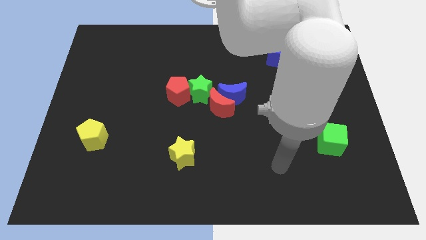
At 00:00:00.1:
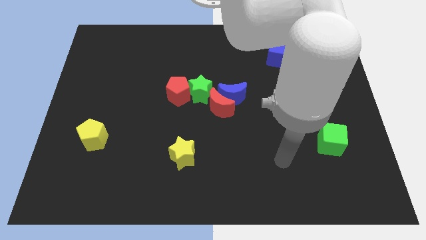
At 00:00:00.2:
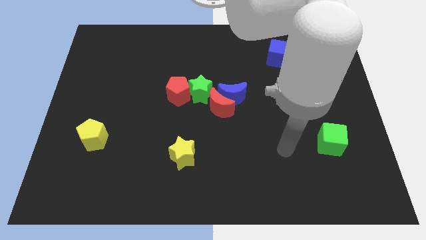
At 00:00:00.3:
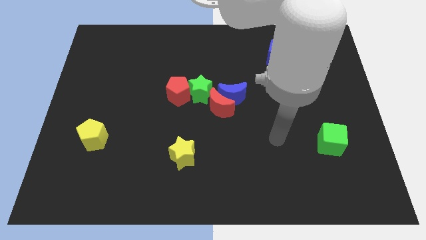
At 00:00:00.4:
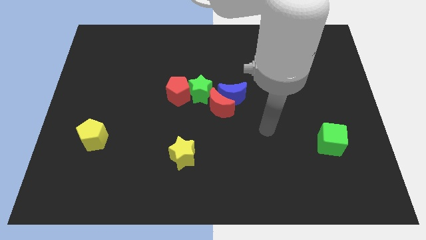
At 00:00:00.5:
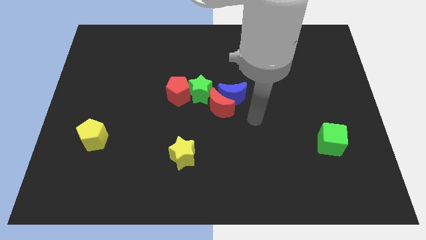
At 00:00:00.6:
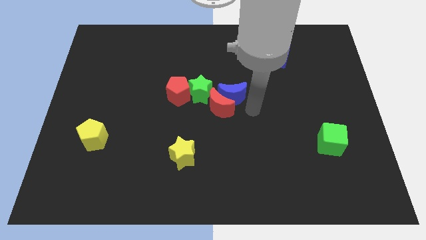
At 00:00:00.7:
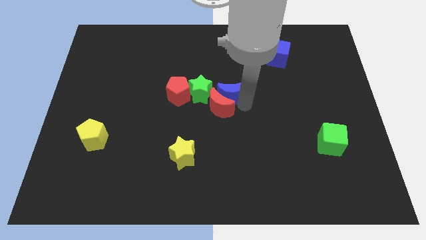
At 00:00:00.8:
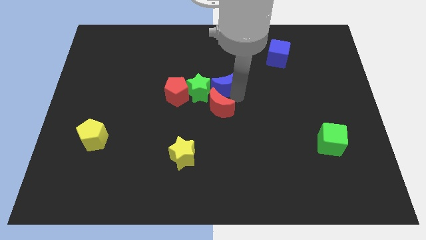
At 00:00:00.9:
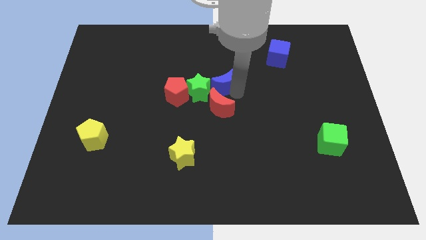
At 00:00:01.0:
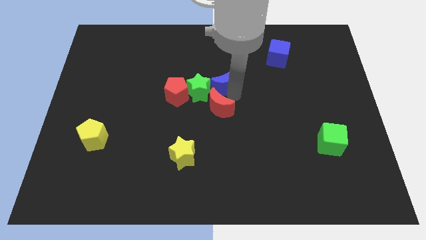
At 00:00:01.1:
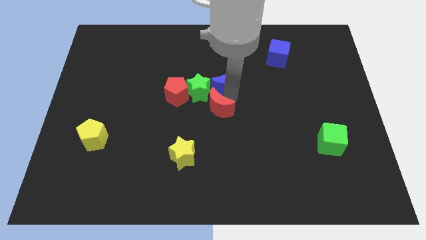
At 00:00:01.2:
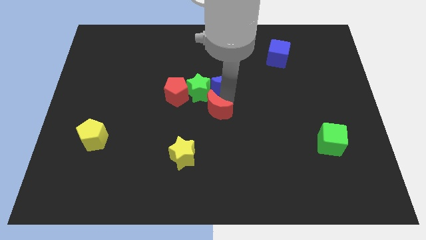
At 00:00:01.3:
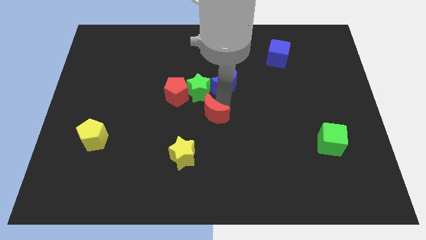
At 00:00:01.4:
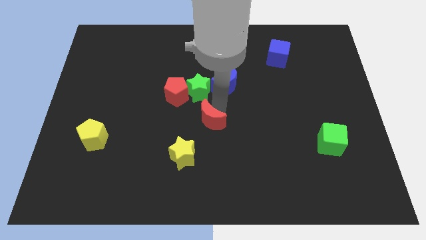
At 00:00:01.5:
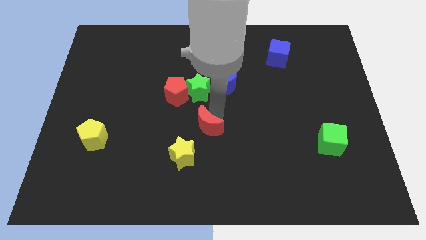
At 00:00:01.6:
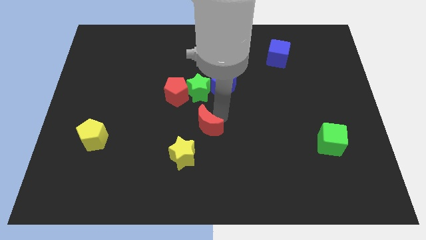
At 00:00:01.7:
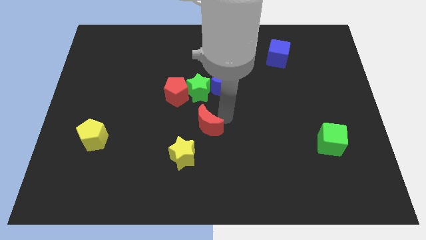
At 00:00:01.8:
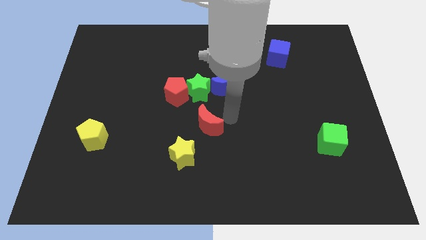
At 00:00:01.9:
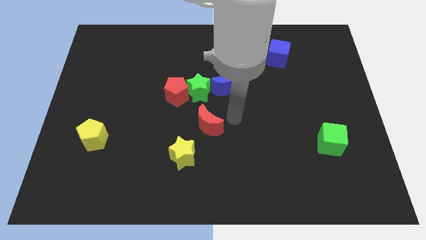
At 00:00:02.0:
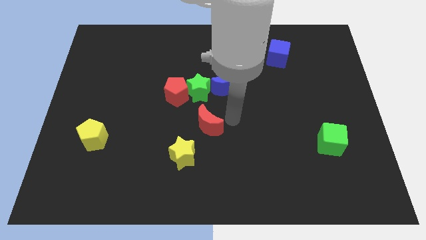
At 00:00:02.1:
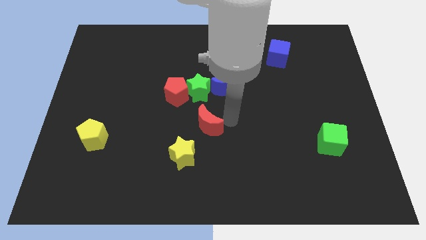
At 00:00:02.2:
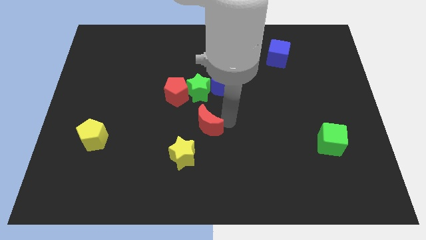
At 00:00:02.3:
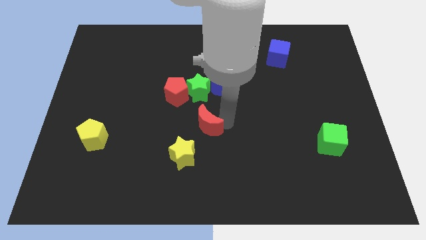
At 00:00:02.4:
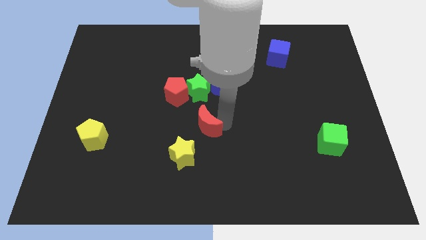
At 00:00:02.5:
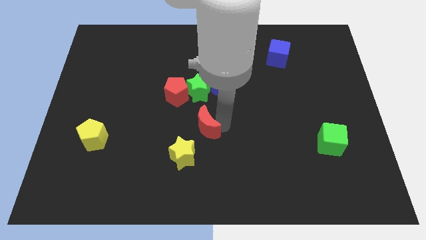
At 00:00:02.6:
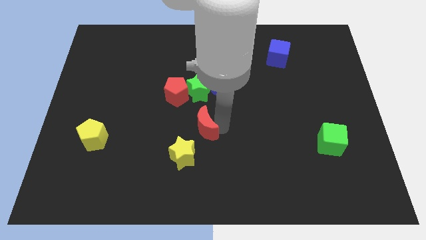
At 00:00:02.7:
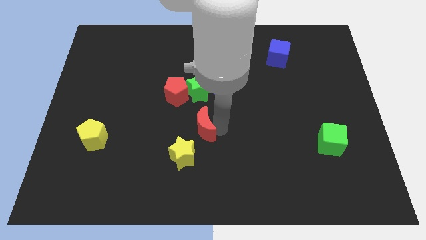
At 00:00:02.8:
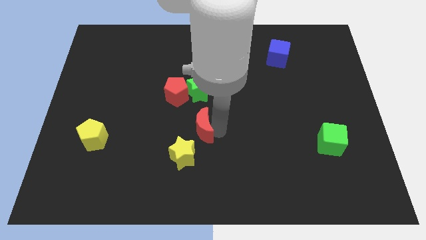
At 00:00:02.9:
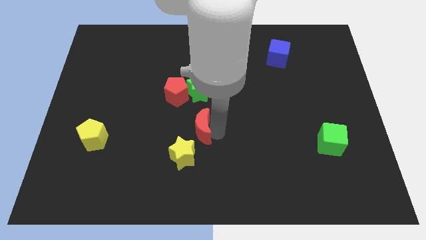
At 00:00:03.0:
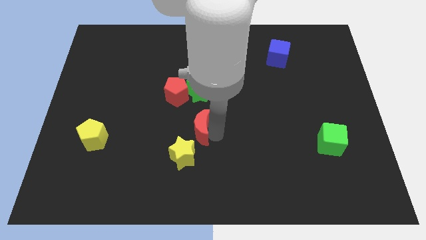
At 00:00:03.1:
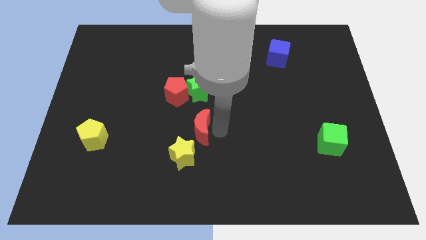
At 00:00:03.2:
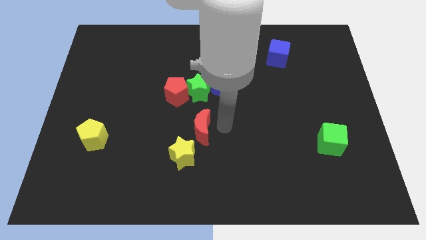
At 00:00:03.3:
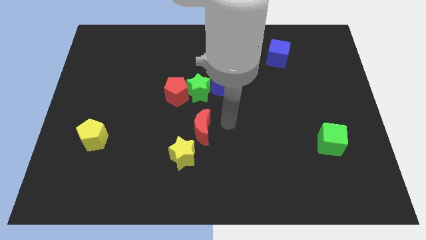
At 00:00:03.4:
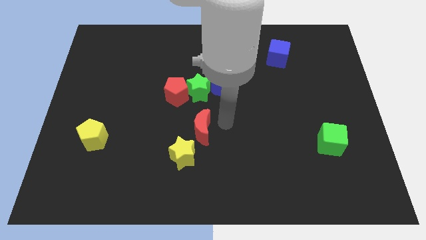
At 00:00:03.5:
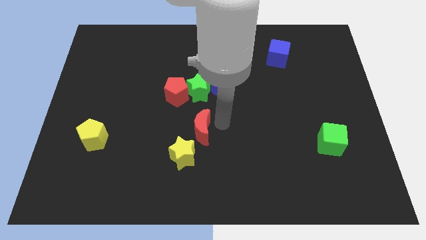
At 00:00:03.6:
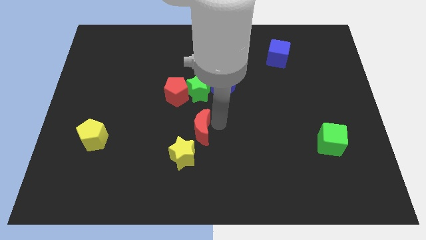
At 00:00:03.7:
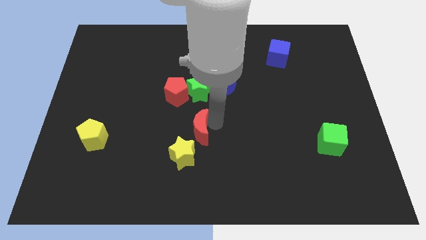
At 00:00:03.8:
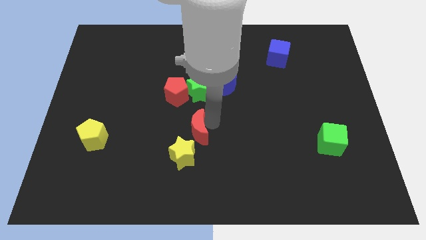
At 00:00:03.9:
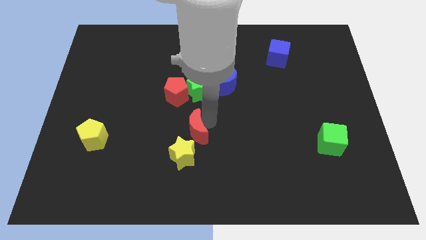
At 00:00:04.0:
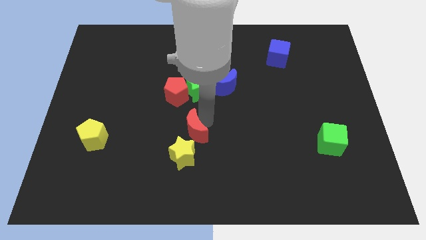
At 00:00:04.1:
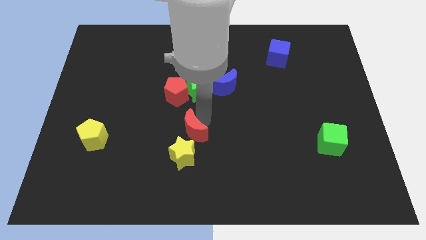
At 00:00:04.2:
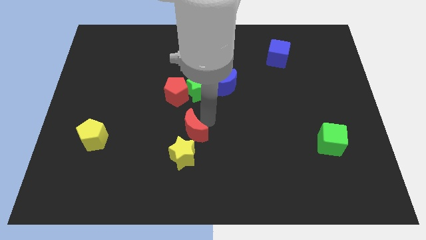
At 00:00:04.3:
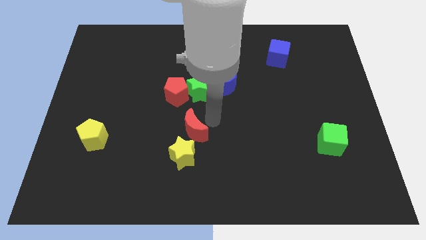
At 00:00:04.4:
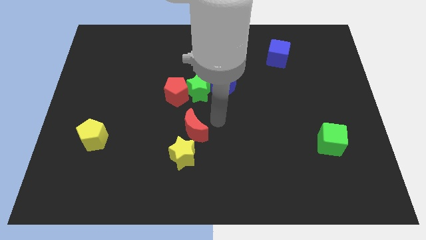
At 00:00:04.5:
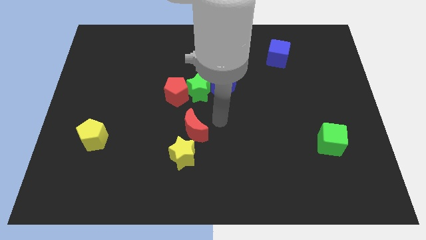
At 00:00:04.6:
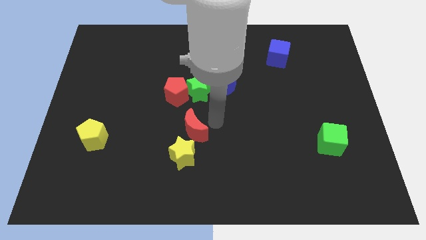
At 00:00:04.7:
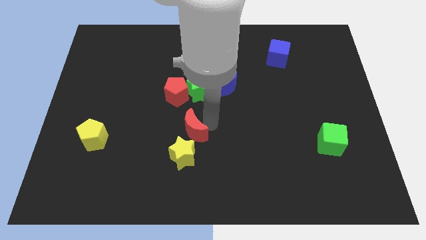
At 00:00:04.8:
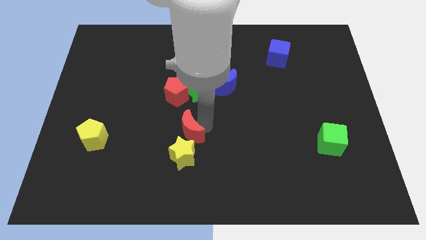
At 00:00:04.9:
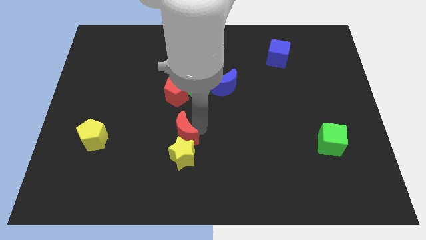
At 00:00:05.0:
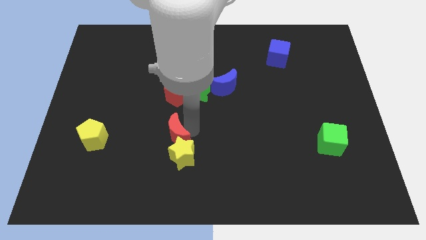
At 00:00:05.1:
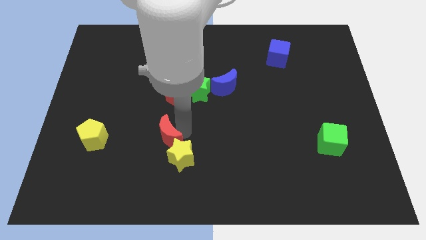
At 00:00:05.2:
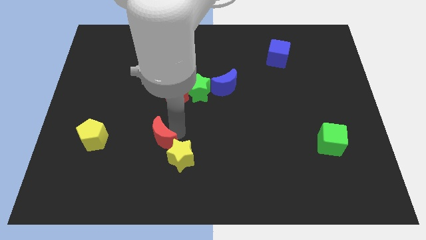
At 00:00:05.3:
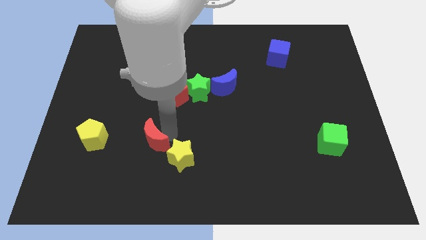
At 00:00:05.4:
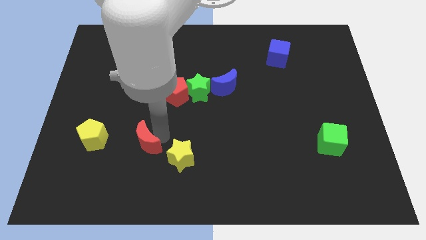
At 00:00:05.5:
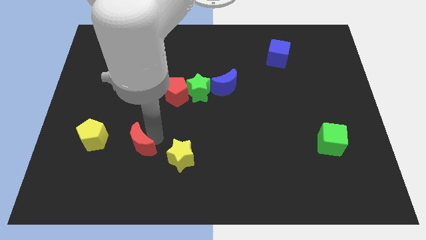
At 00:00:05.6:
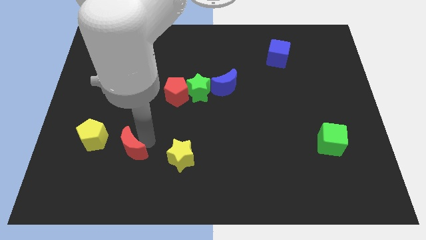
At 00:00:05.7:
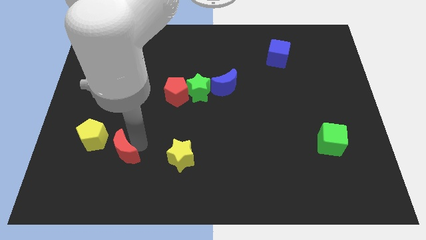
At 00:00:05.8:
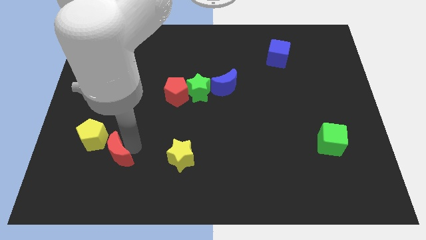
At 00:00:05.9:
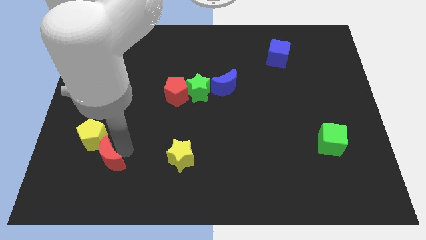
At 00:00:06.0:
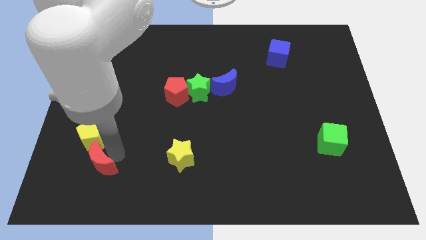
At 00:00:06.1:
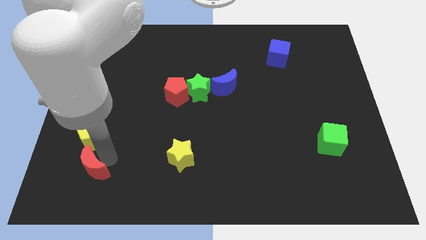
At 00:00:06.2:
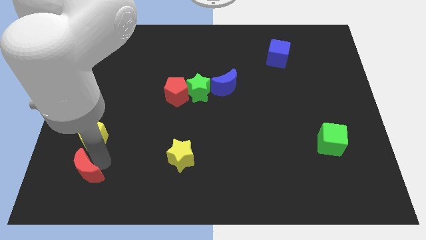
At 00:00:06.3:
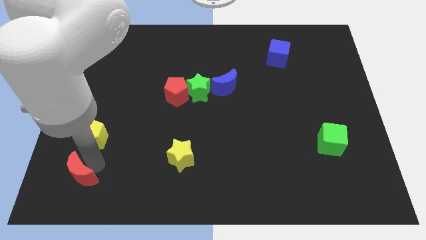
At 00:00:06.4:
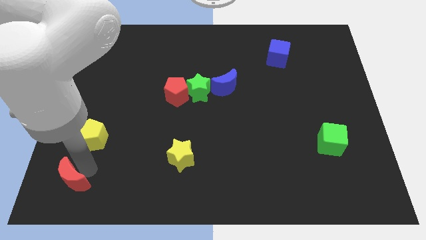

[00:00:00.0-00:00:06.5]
move the red moon to the lower left corner

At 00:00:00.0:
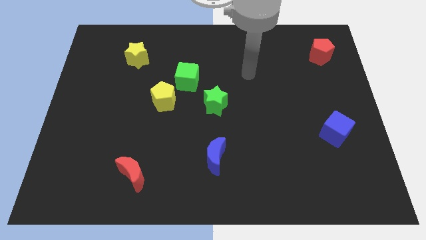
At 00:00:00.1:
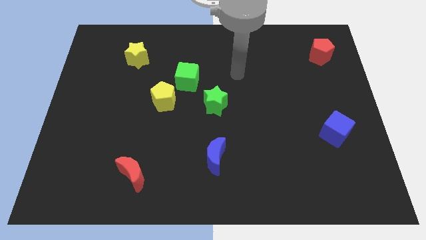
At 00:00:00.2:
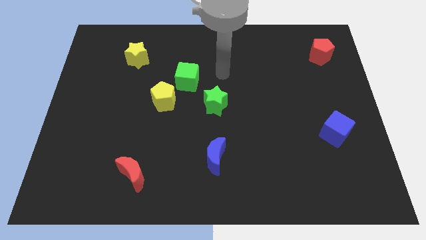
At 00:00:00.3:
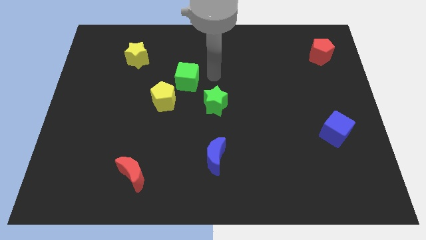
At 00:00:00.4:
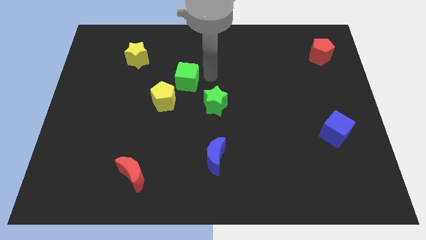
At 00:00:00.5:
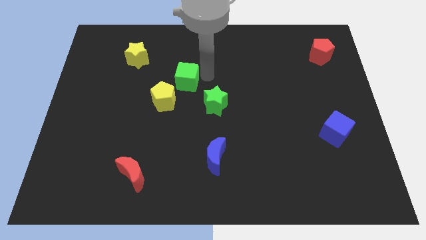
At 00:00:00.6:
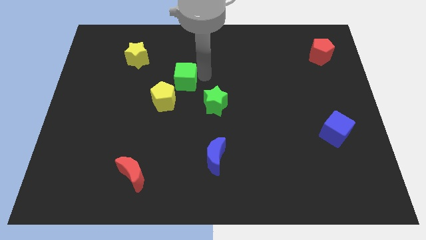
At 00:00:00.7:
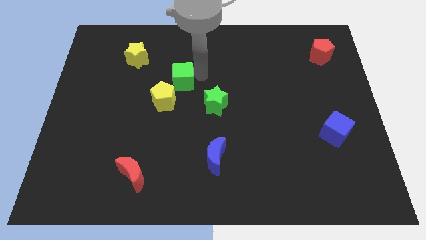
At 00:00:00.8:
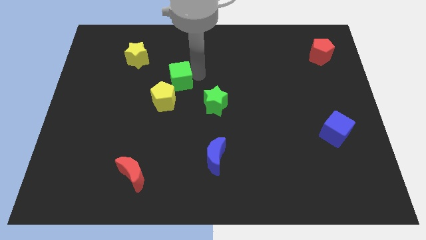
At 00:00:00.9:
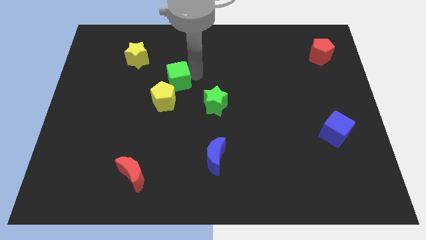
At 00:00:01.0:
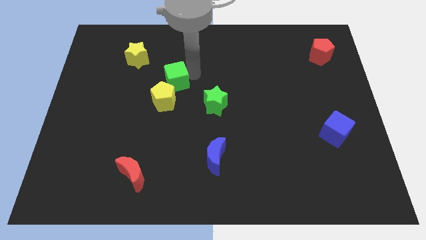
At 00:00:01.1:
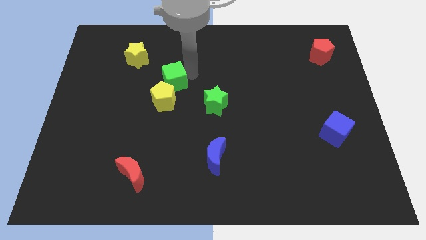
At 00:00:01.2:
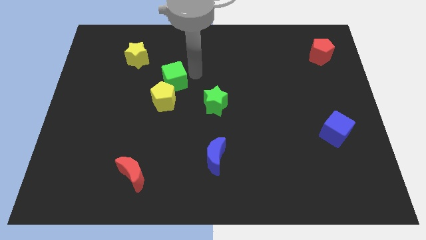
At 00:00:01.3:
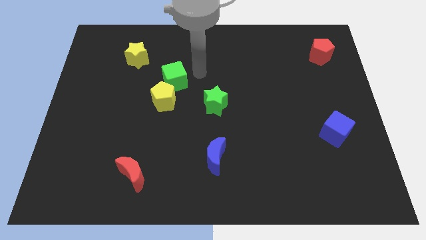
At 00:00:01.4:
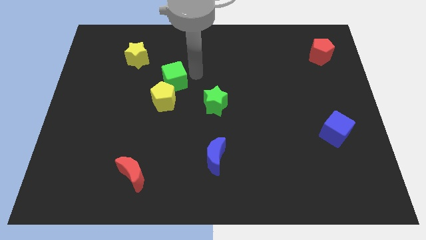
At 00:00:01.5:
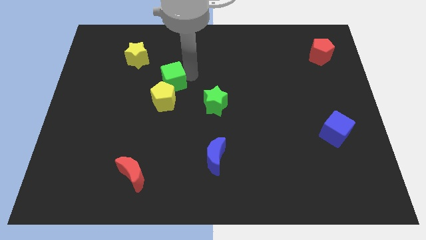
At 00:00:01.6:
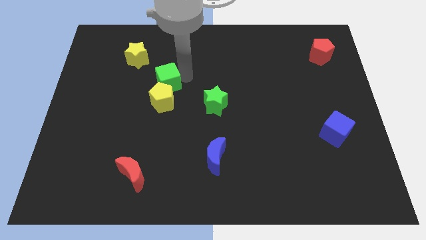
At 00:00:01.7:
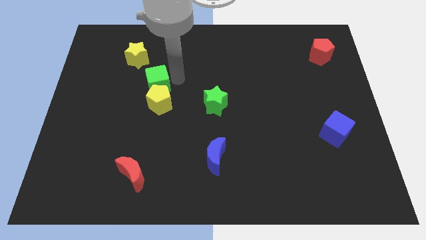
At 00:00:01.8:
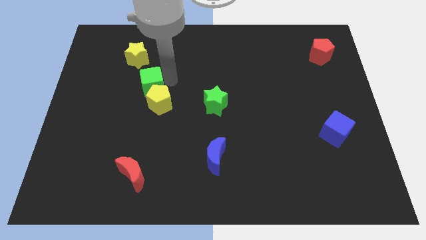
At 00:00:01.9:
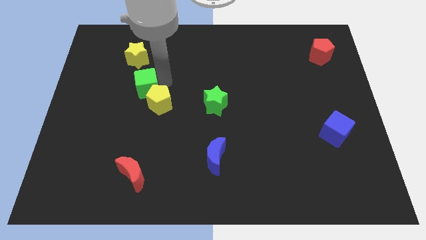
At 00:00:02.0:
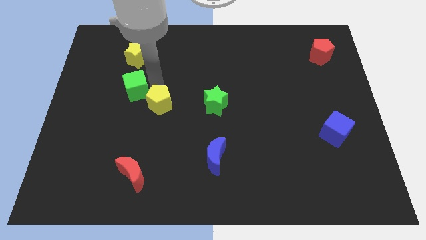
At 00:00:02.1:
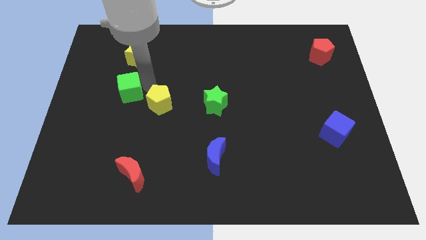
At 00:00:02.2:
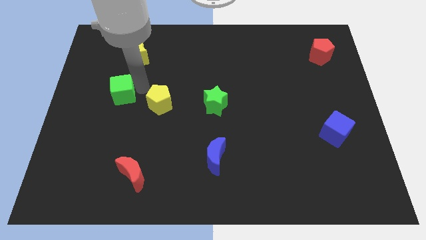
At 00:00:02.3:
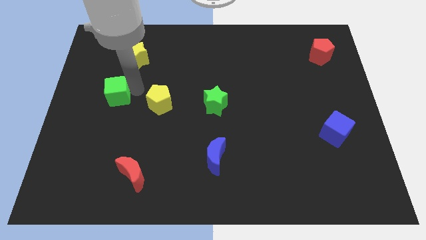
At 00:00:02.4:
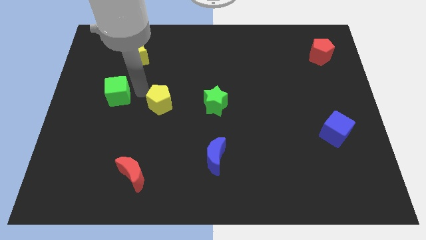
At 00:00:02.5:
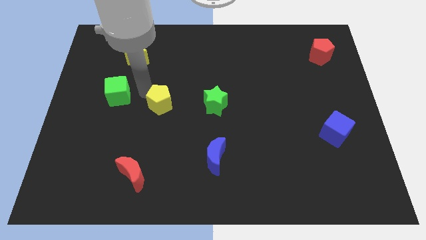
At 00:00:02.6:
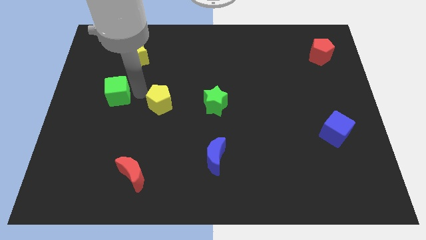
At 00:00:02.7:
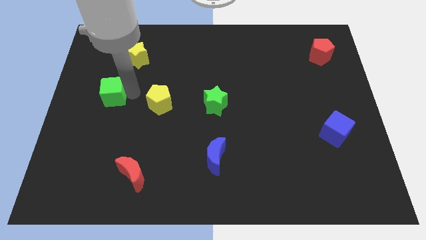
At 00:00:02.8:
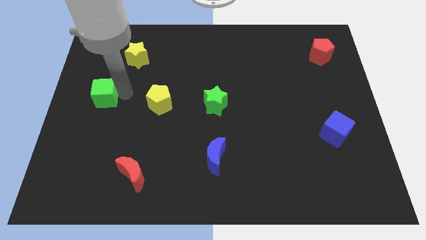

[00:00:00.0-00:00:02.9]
slide the green cube to the left side
